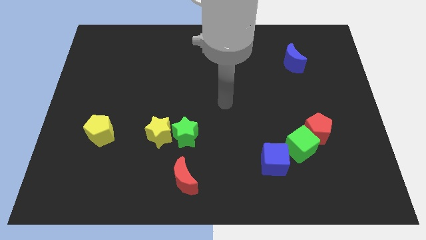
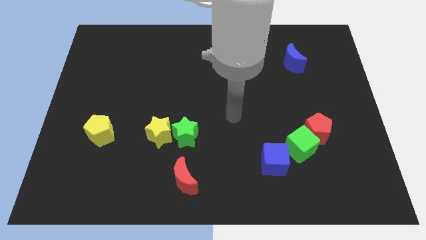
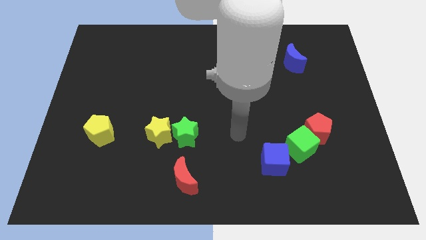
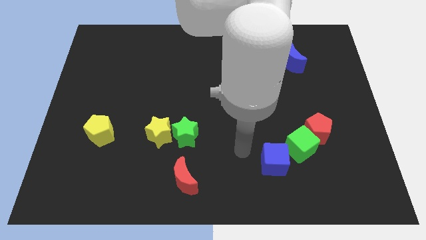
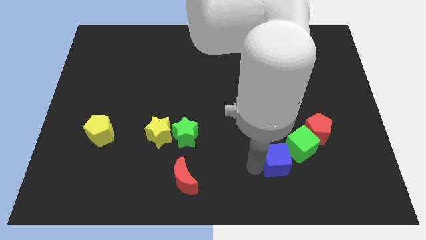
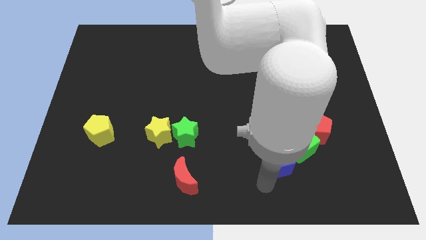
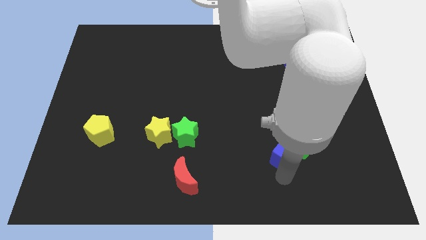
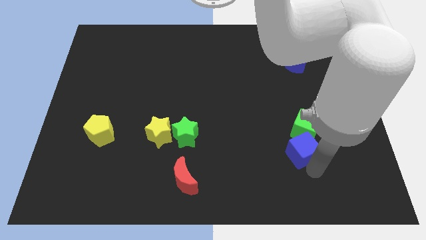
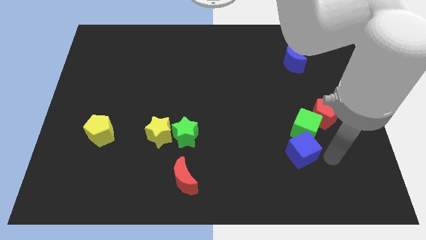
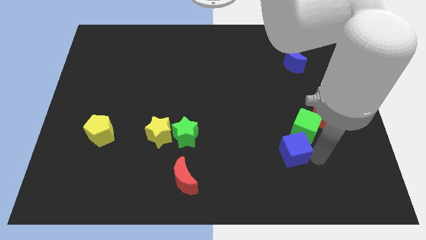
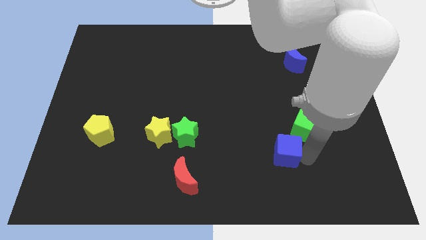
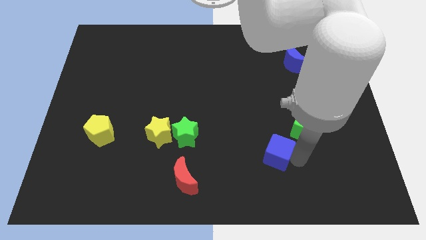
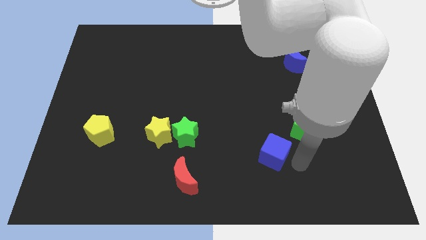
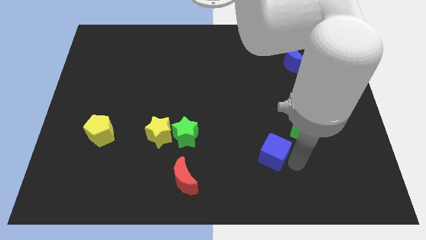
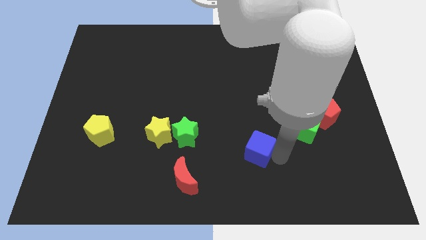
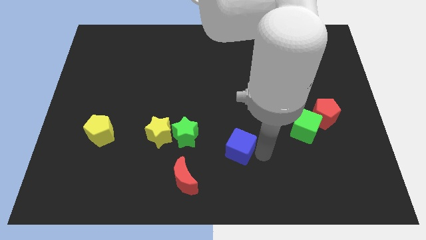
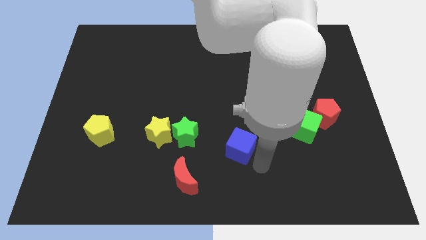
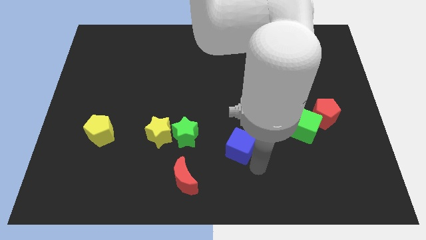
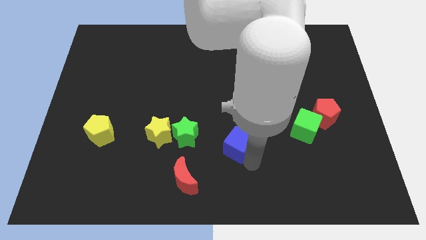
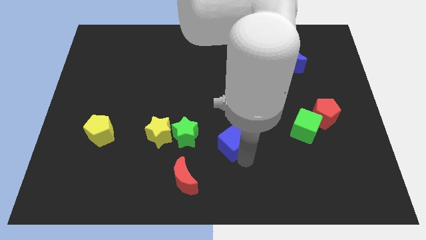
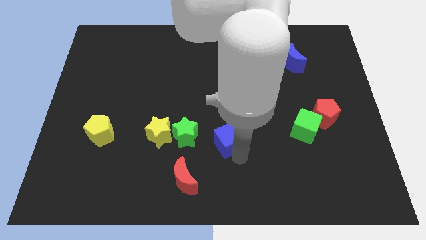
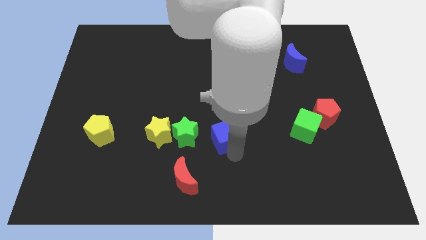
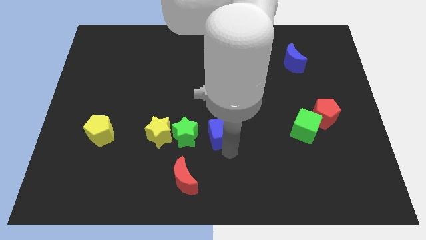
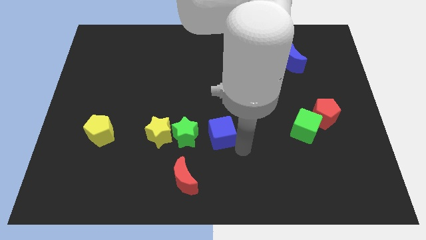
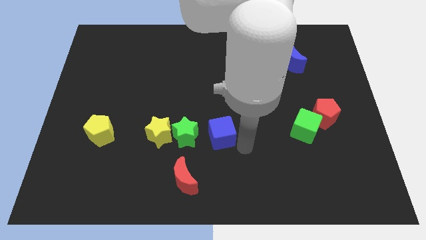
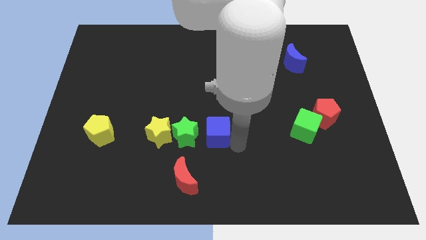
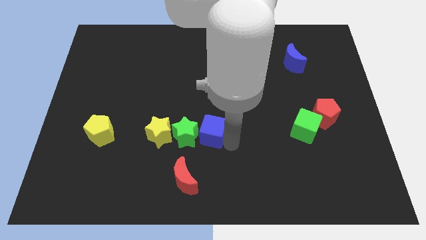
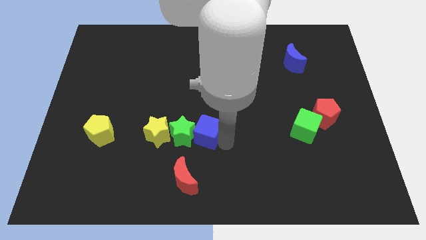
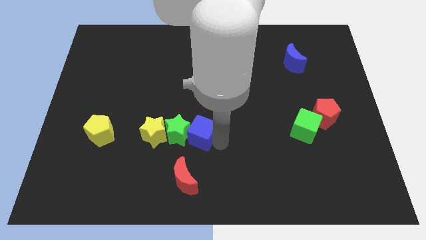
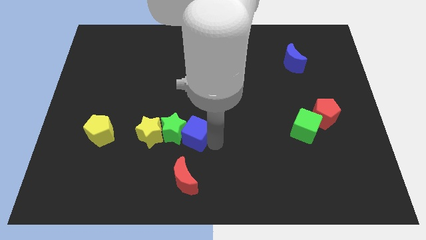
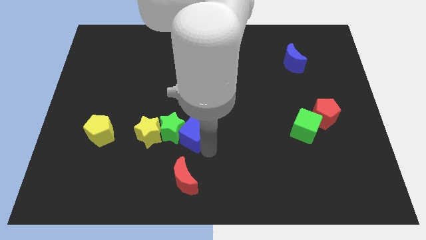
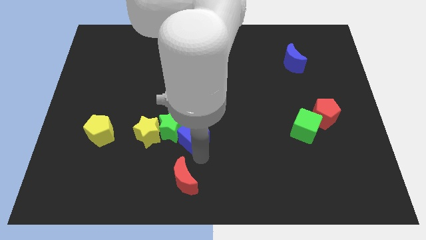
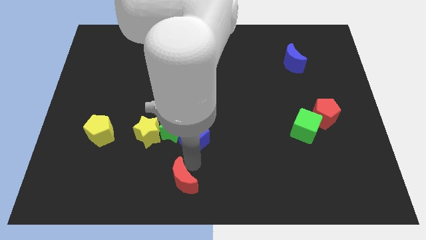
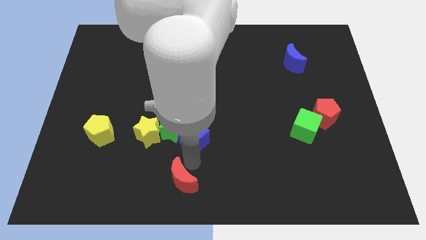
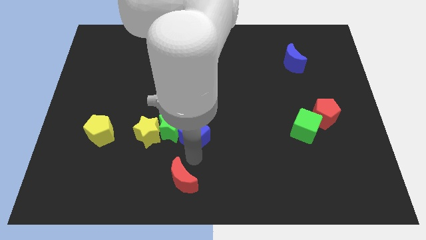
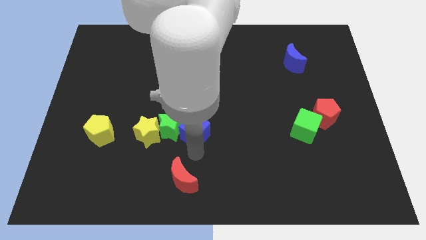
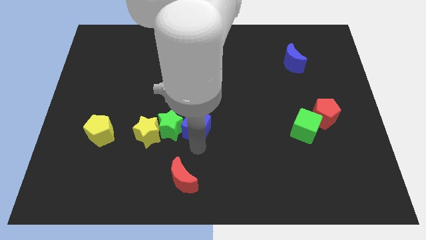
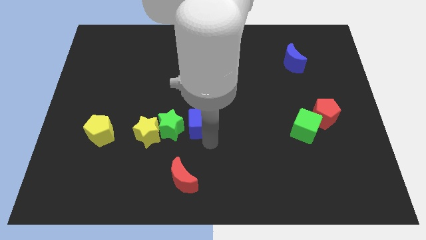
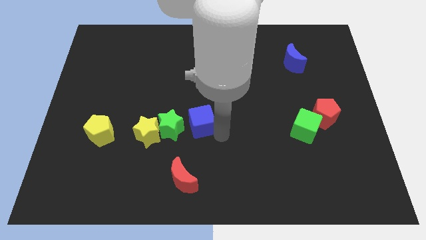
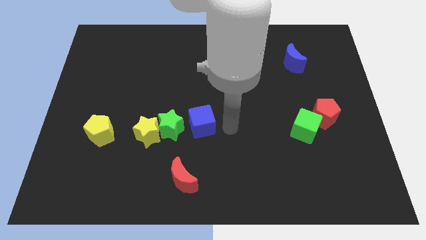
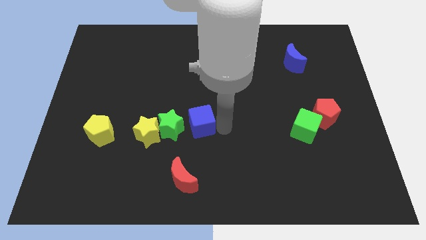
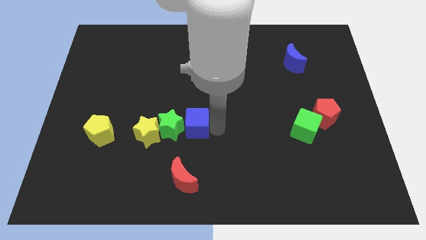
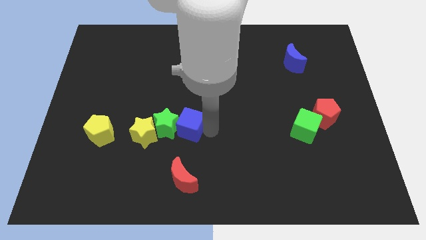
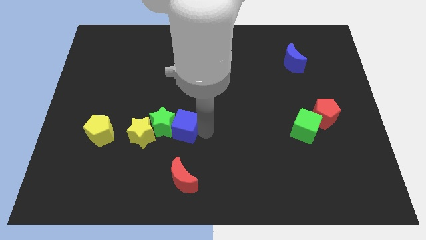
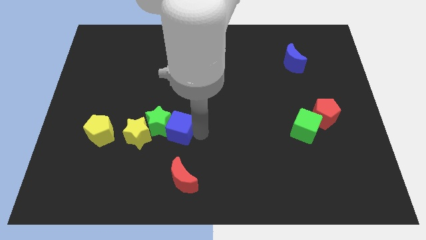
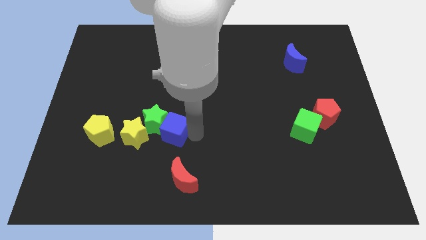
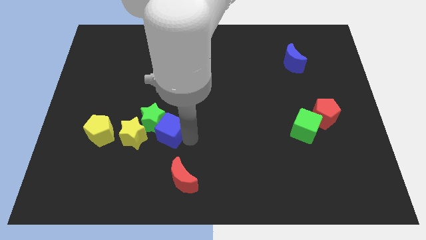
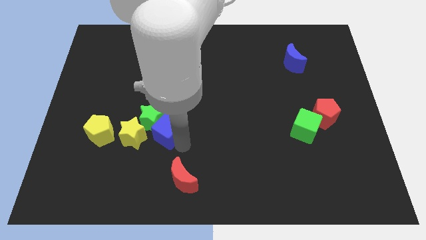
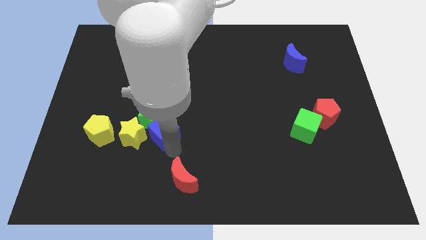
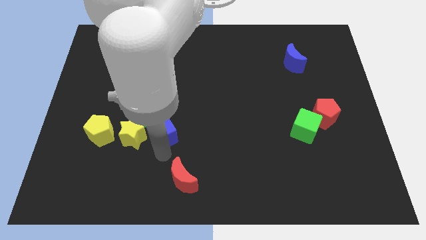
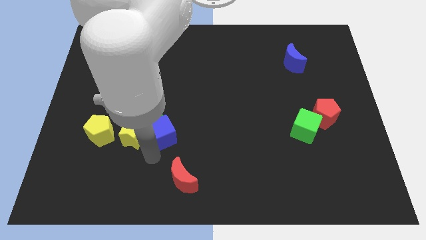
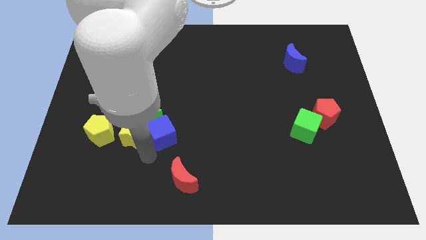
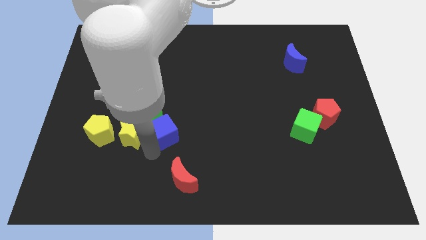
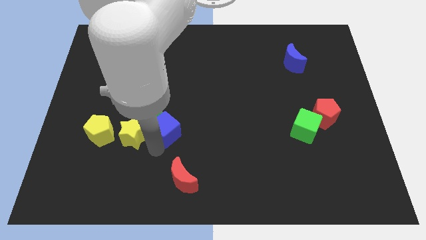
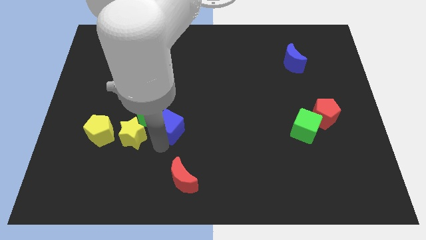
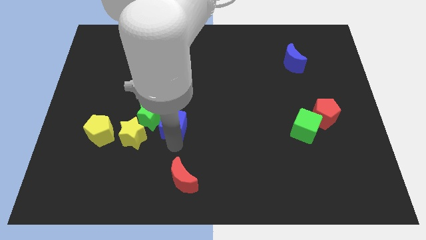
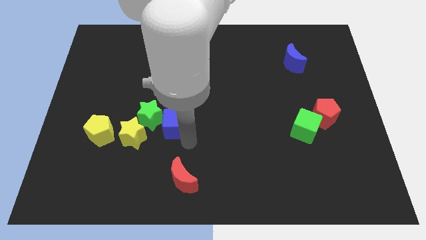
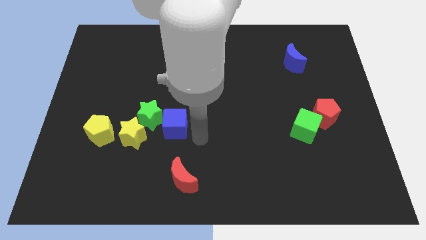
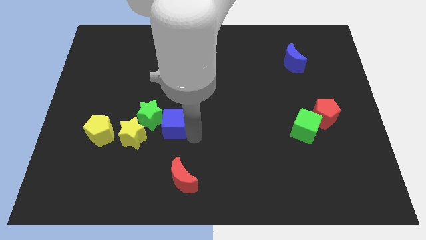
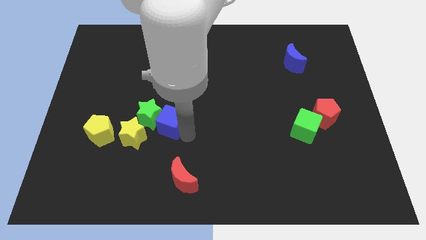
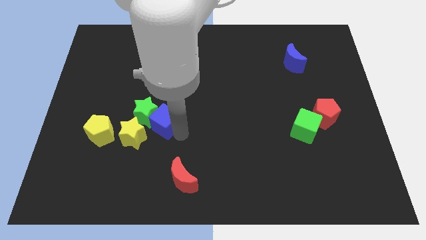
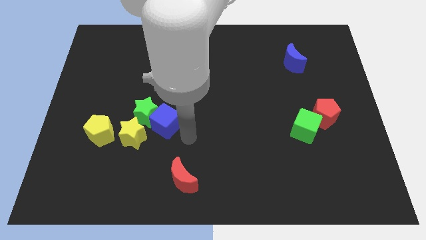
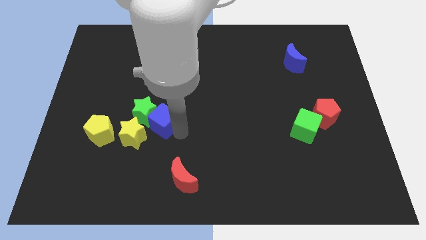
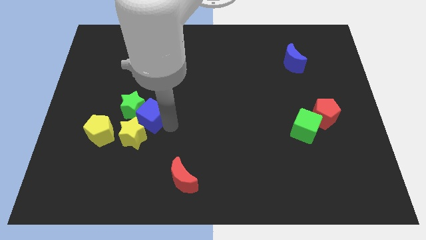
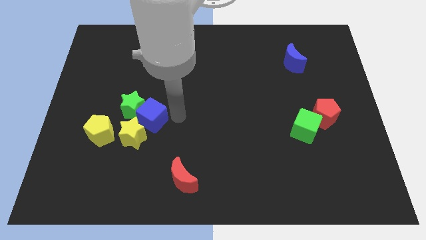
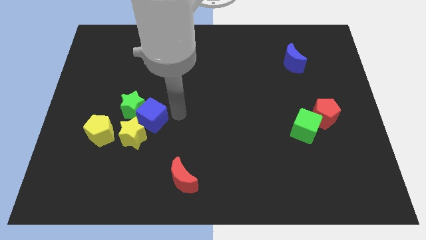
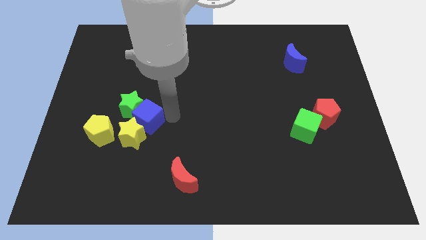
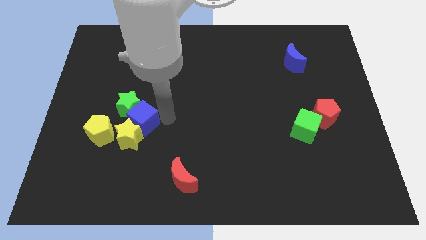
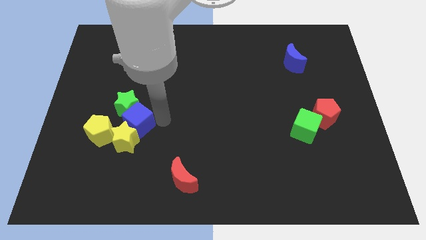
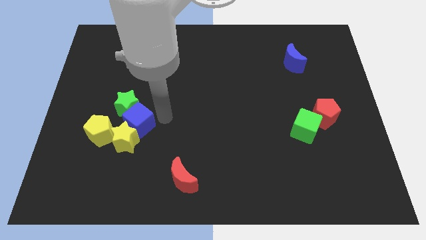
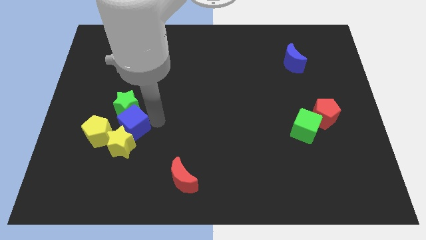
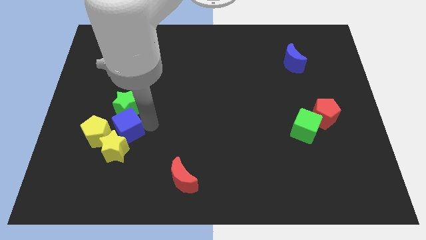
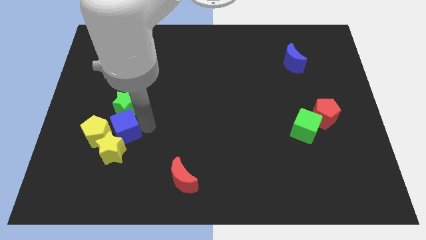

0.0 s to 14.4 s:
push the blue cube close to the yellow pentagon
